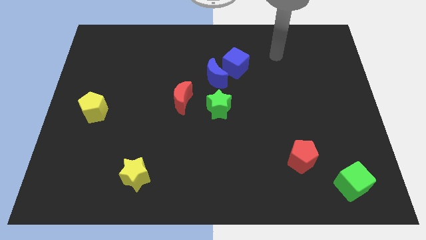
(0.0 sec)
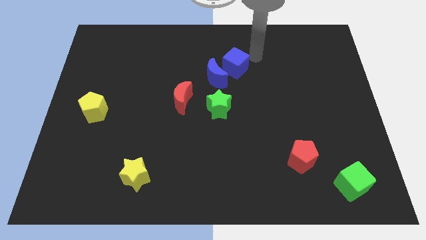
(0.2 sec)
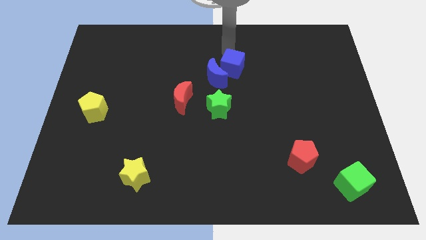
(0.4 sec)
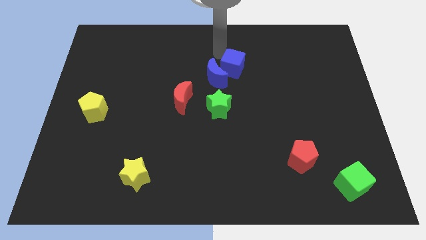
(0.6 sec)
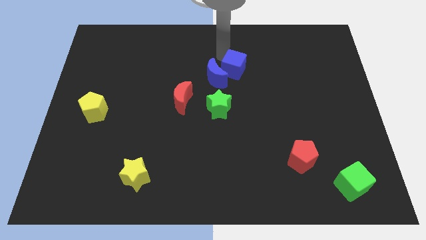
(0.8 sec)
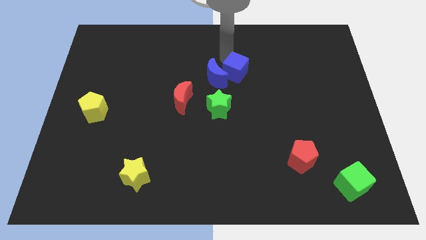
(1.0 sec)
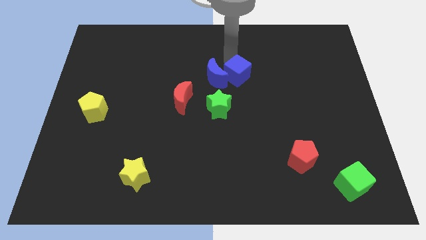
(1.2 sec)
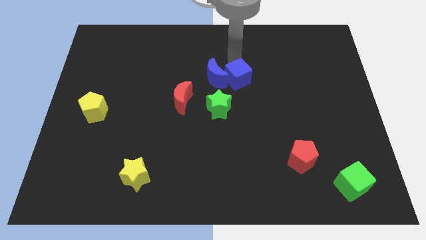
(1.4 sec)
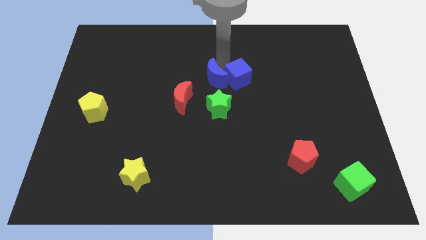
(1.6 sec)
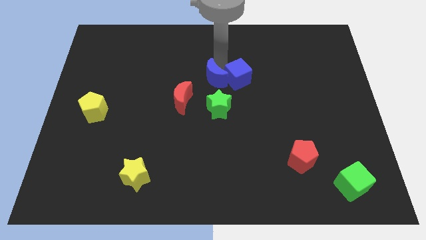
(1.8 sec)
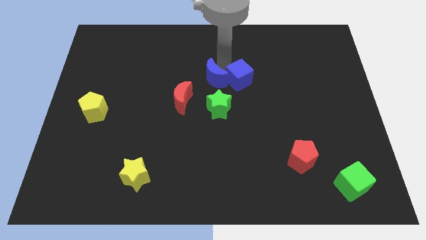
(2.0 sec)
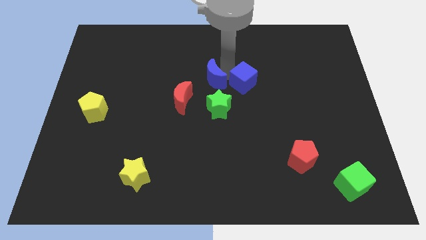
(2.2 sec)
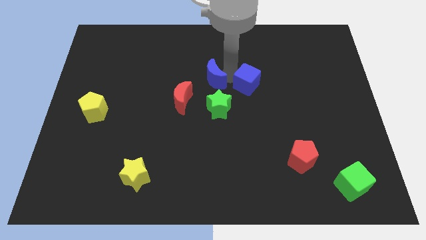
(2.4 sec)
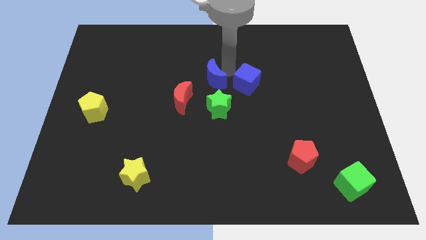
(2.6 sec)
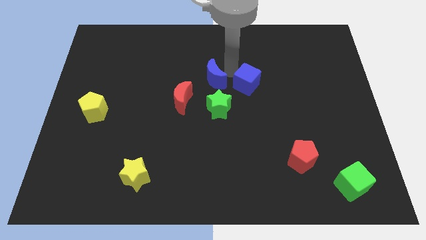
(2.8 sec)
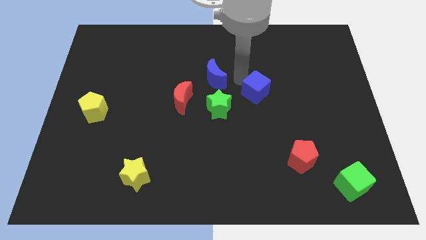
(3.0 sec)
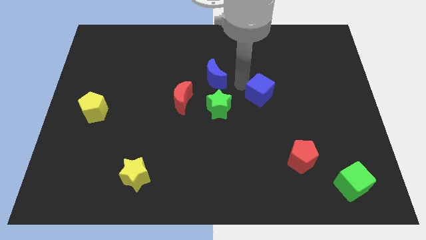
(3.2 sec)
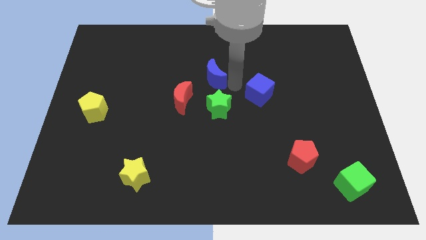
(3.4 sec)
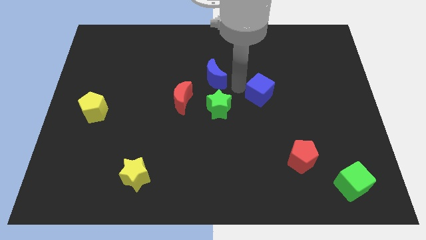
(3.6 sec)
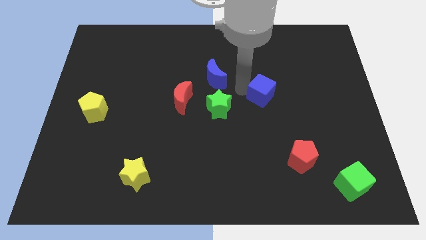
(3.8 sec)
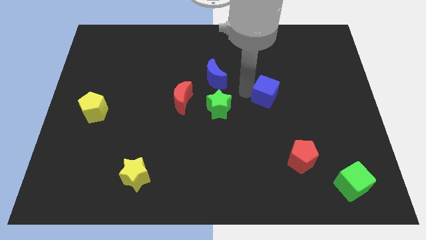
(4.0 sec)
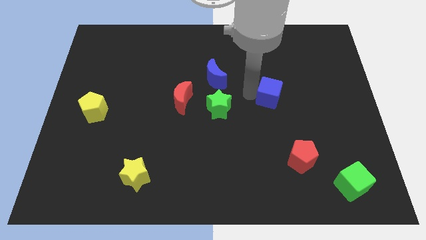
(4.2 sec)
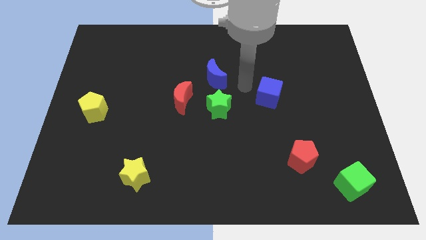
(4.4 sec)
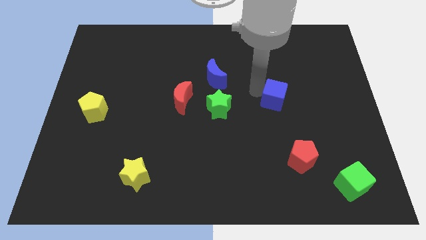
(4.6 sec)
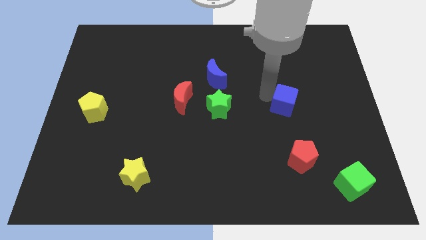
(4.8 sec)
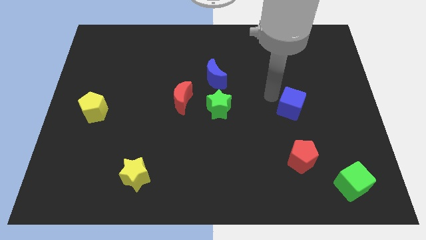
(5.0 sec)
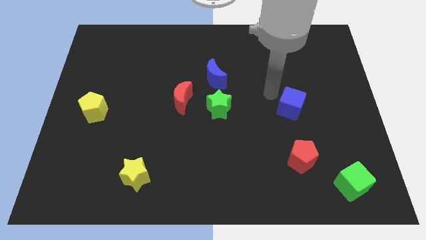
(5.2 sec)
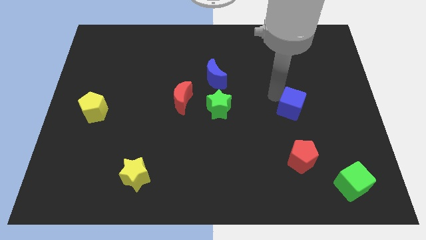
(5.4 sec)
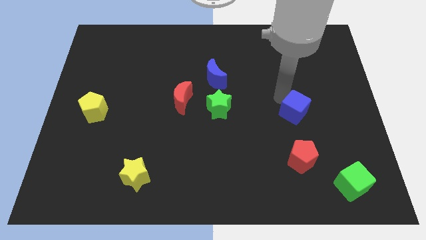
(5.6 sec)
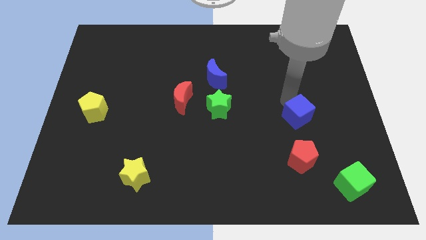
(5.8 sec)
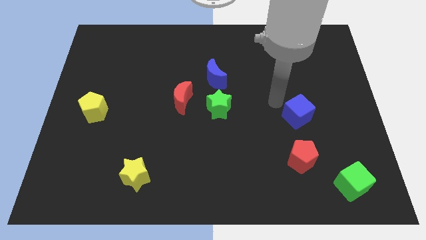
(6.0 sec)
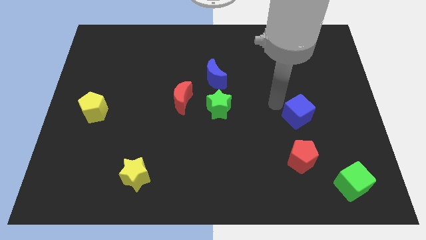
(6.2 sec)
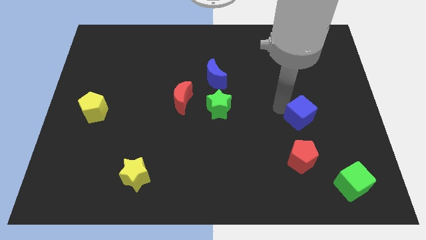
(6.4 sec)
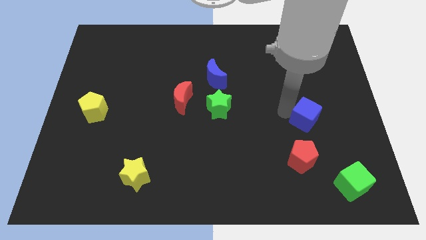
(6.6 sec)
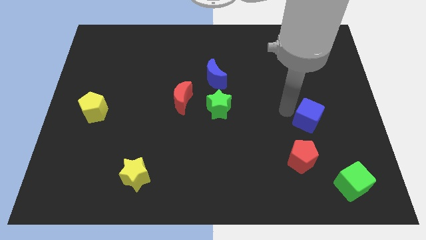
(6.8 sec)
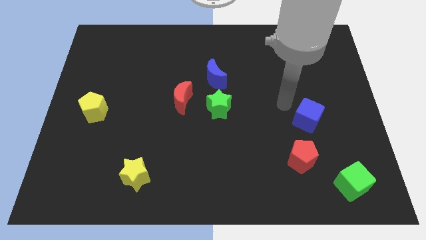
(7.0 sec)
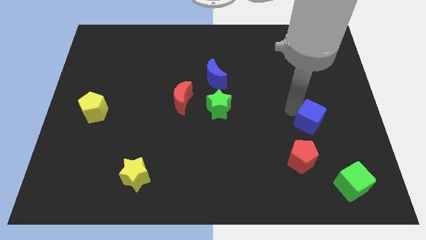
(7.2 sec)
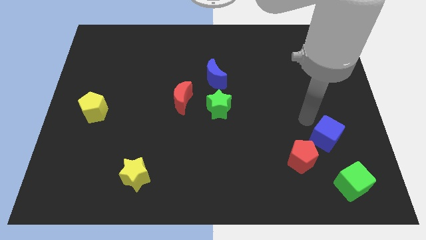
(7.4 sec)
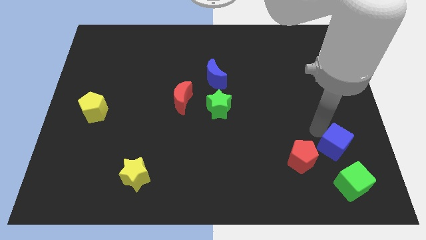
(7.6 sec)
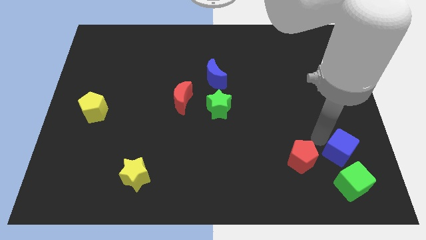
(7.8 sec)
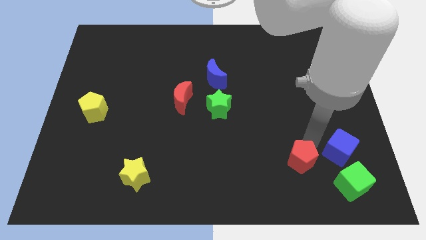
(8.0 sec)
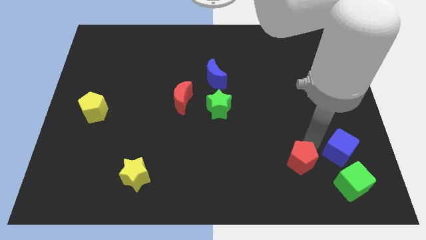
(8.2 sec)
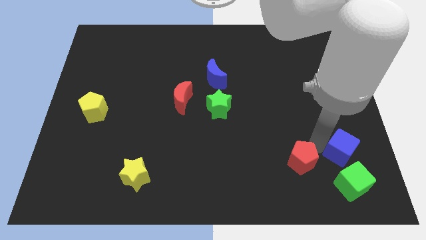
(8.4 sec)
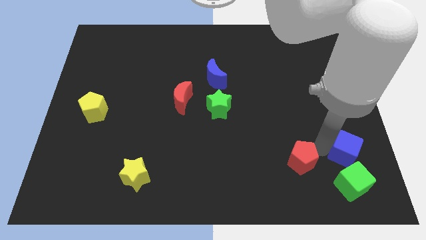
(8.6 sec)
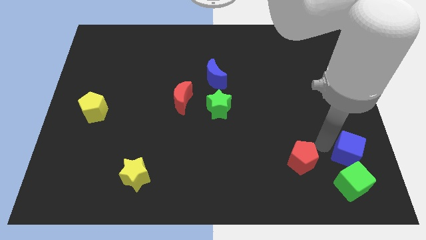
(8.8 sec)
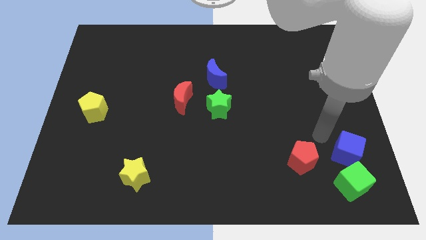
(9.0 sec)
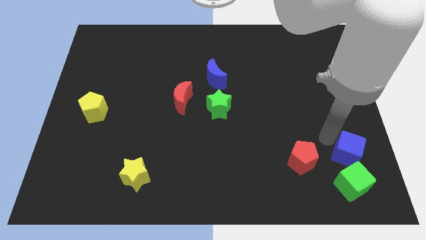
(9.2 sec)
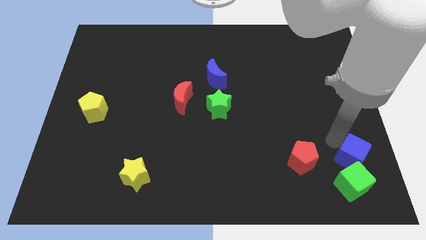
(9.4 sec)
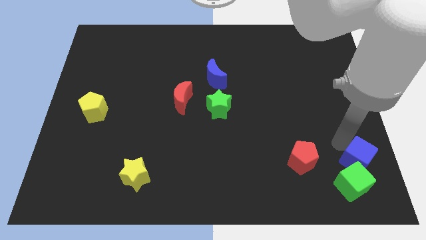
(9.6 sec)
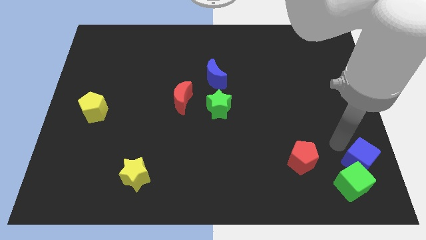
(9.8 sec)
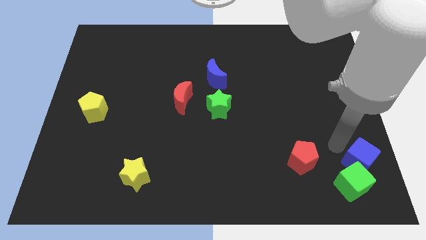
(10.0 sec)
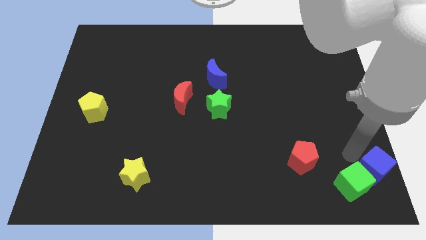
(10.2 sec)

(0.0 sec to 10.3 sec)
slide the blue cube to the bottom right of the board

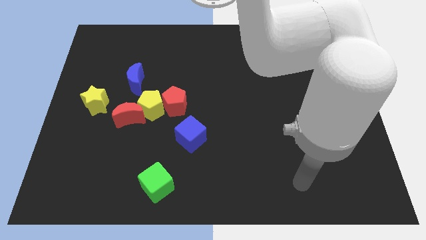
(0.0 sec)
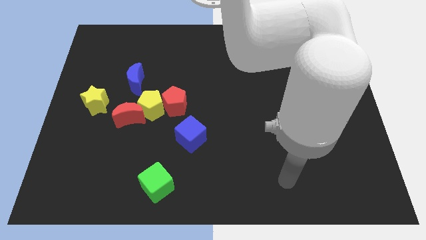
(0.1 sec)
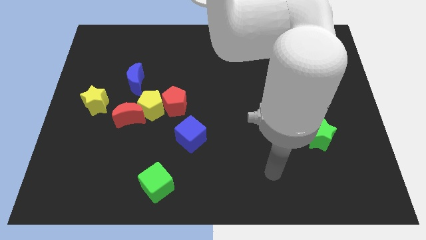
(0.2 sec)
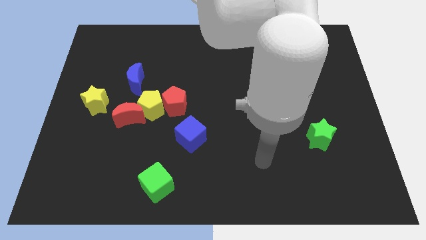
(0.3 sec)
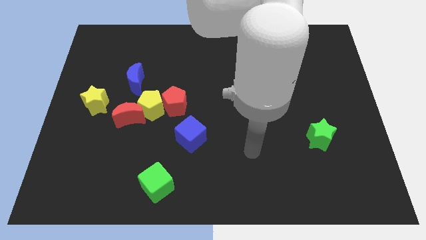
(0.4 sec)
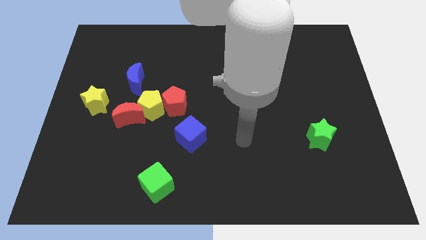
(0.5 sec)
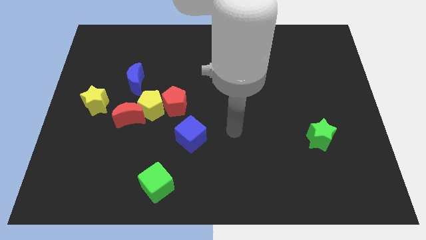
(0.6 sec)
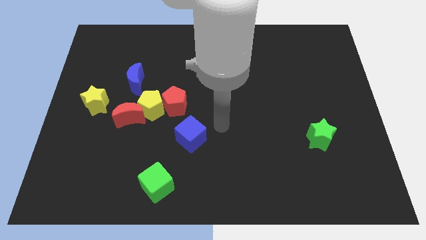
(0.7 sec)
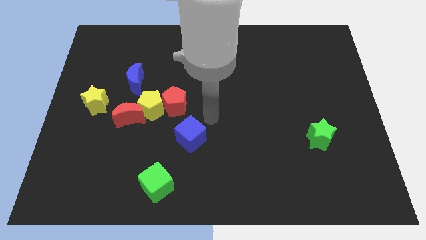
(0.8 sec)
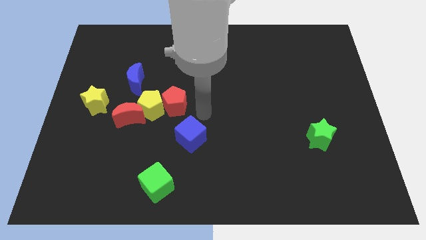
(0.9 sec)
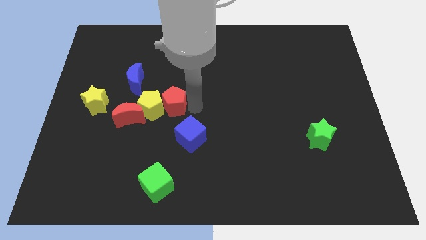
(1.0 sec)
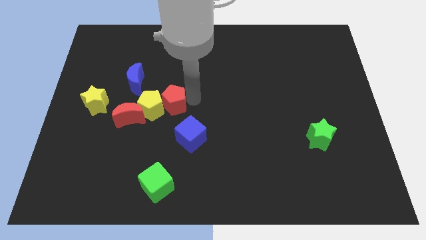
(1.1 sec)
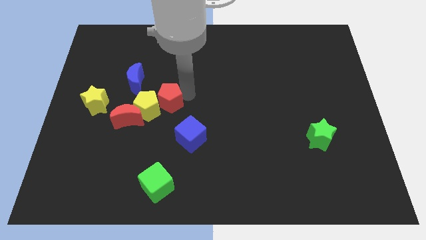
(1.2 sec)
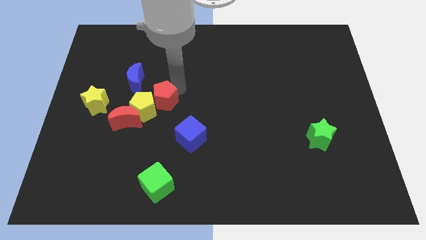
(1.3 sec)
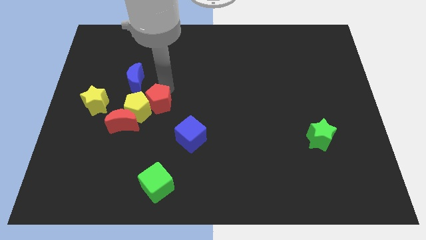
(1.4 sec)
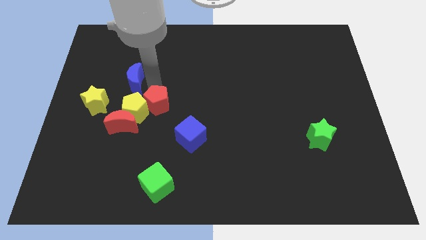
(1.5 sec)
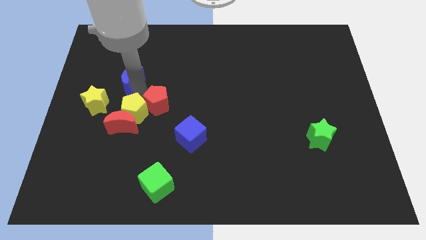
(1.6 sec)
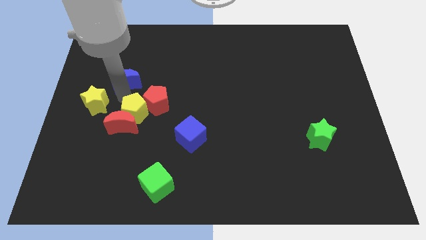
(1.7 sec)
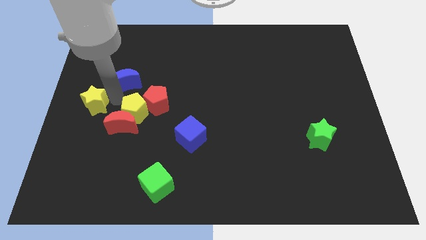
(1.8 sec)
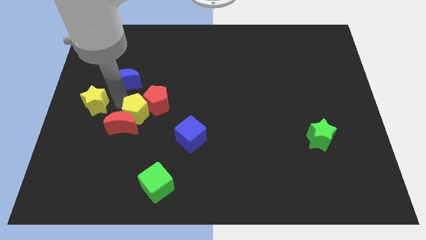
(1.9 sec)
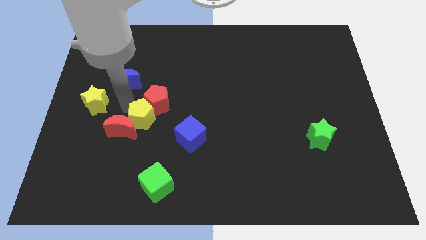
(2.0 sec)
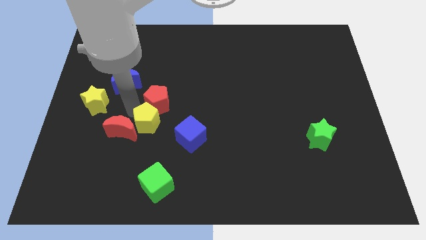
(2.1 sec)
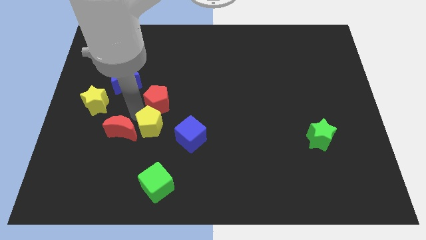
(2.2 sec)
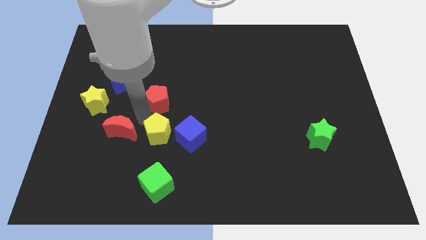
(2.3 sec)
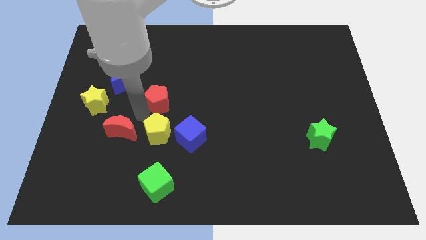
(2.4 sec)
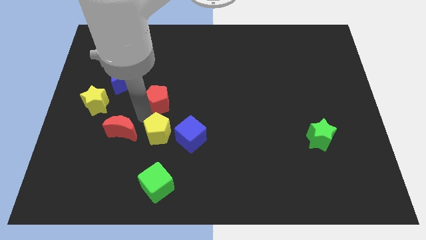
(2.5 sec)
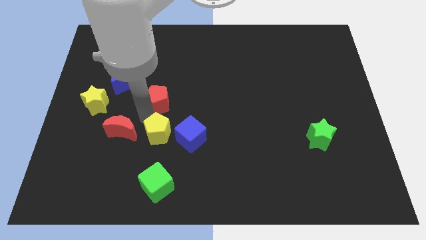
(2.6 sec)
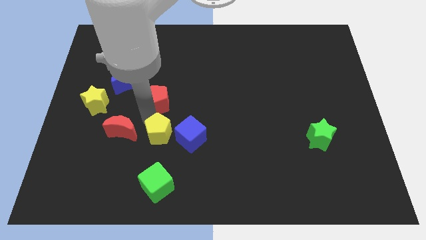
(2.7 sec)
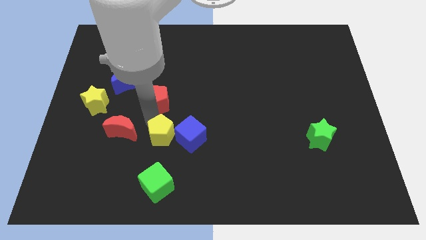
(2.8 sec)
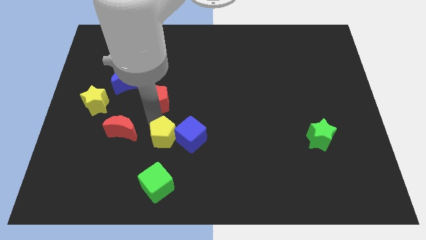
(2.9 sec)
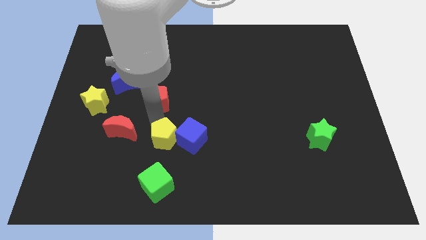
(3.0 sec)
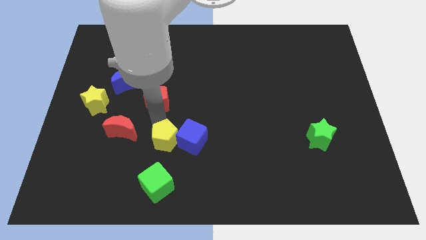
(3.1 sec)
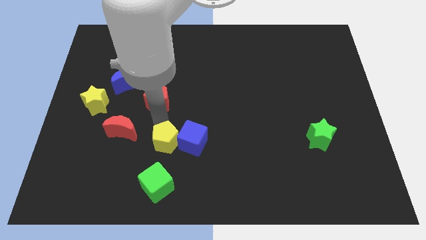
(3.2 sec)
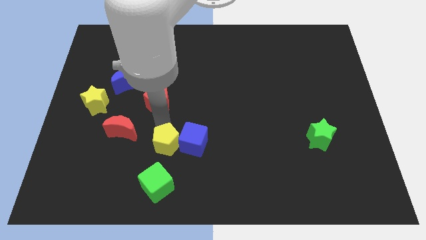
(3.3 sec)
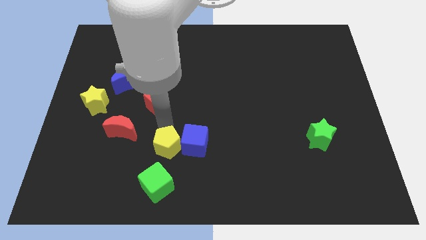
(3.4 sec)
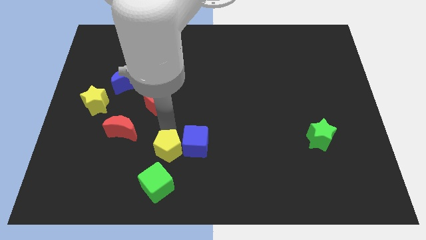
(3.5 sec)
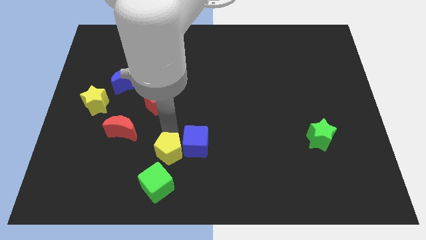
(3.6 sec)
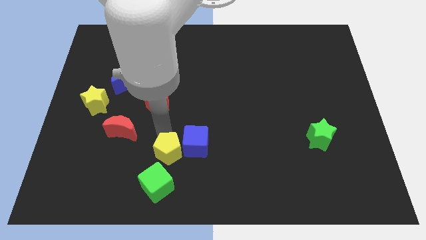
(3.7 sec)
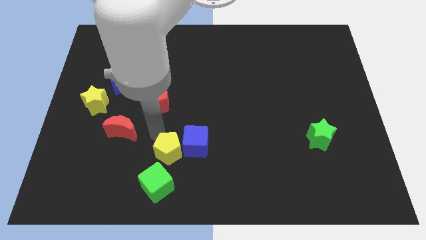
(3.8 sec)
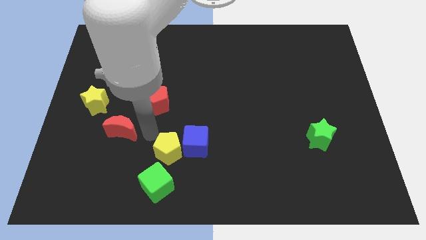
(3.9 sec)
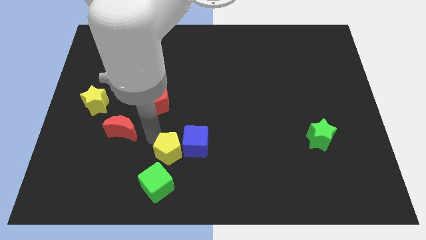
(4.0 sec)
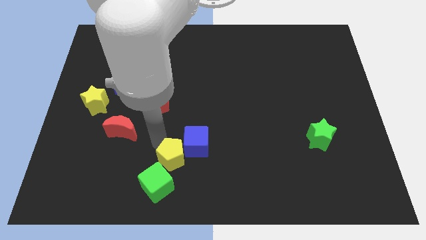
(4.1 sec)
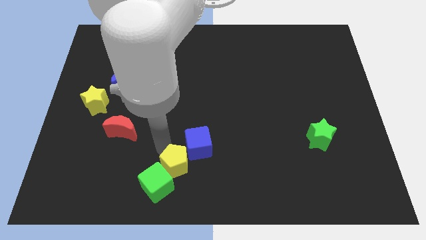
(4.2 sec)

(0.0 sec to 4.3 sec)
put the yellow pentagon to the bottom
